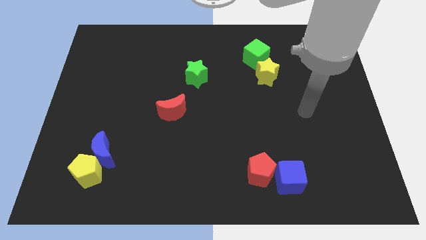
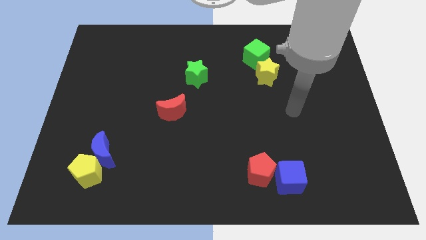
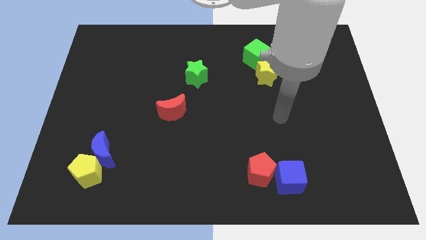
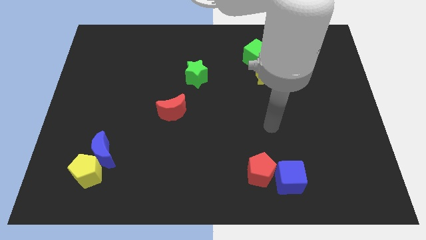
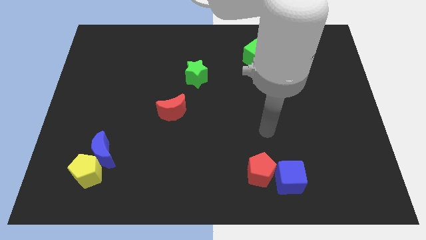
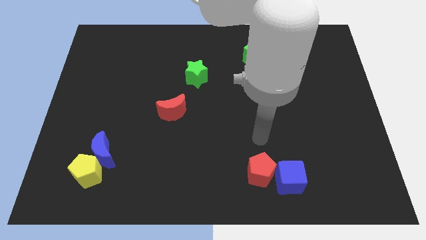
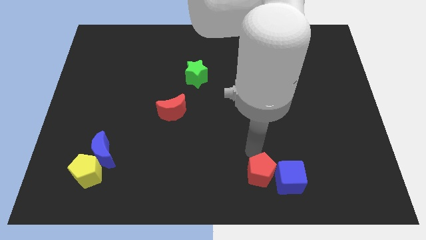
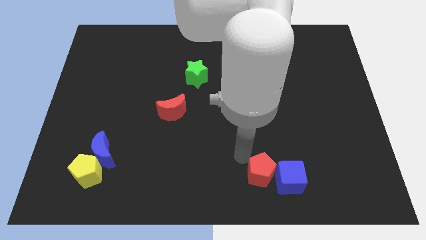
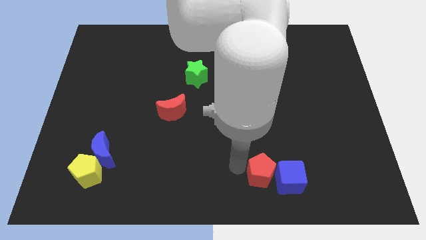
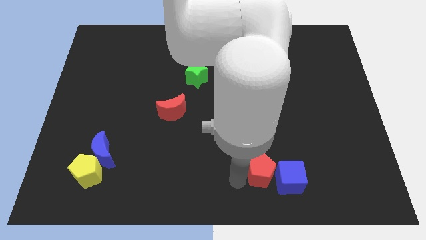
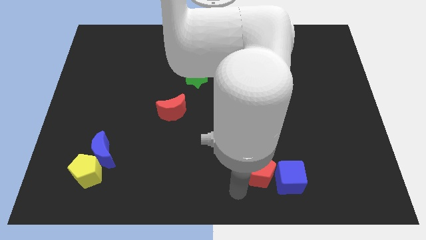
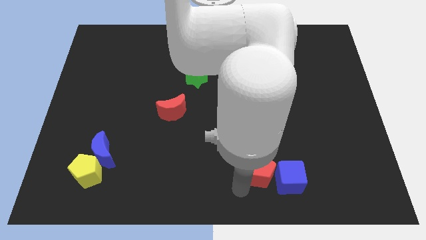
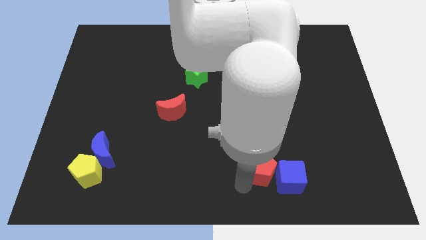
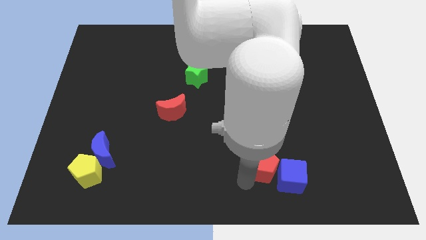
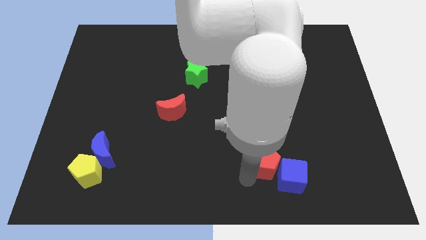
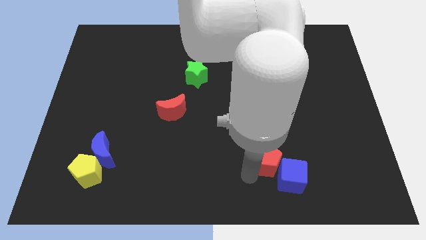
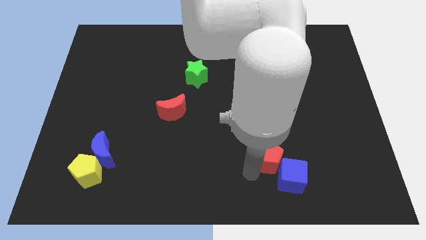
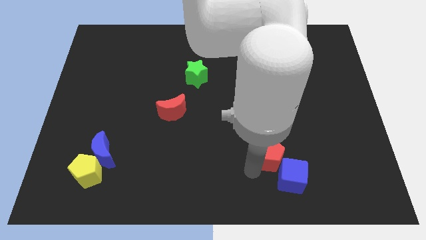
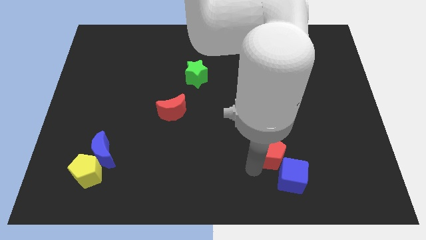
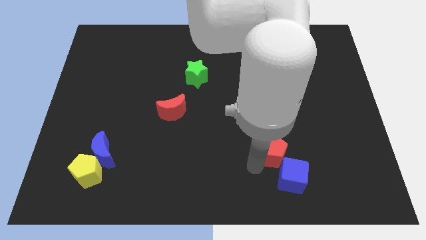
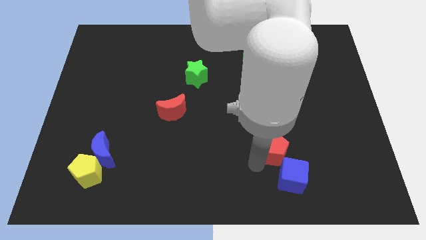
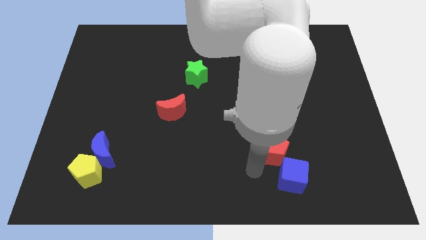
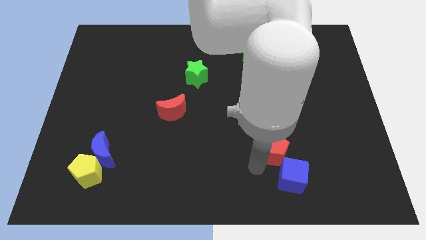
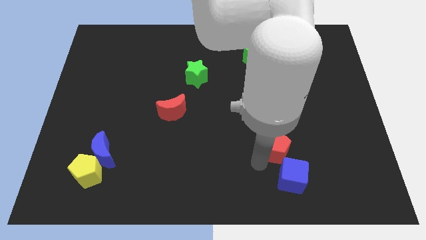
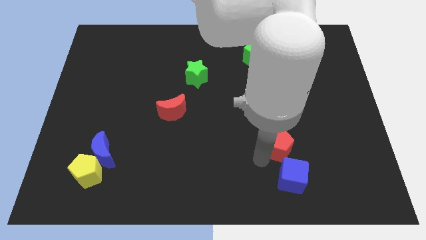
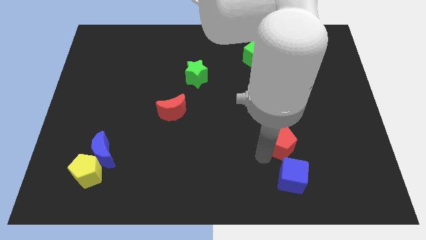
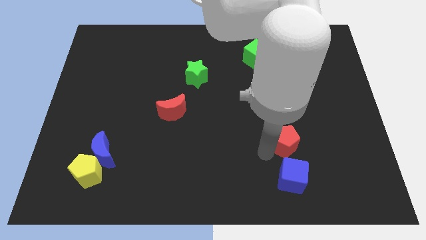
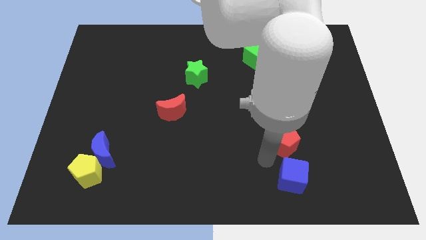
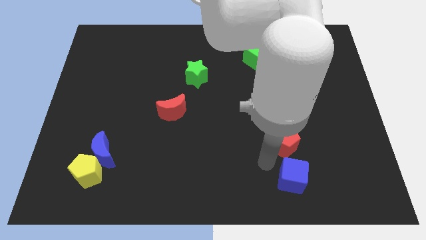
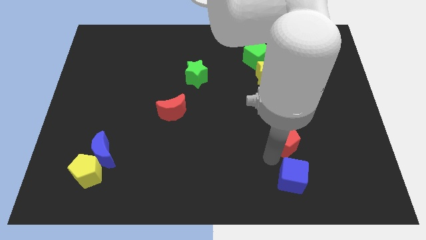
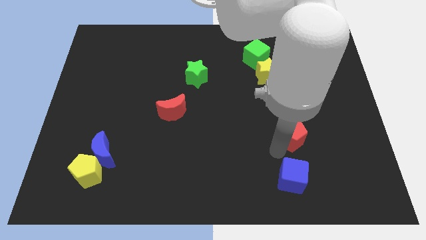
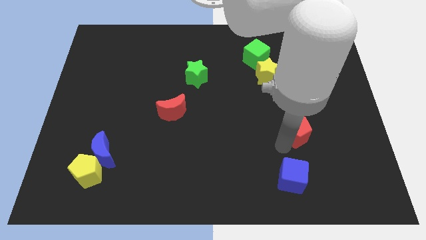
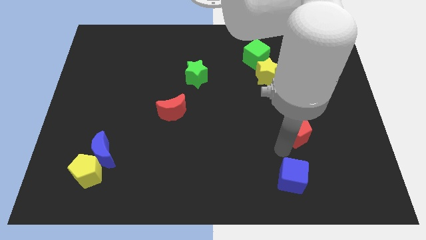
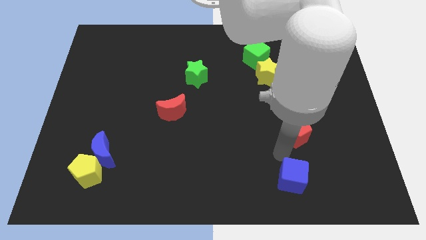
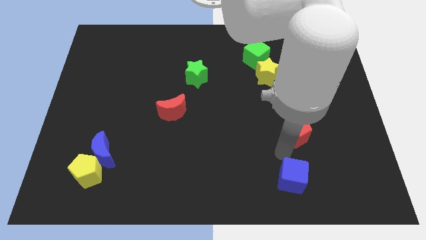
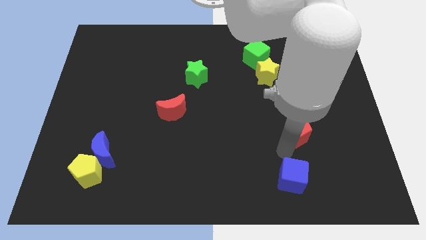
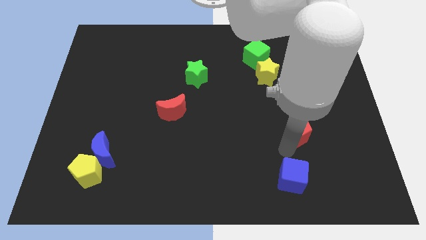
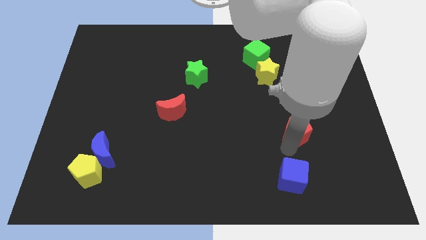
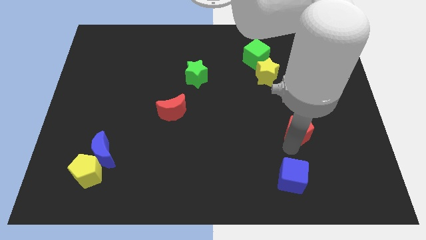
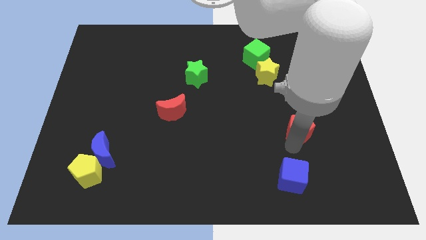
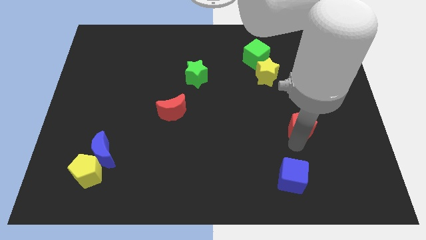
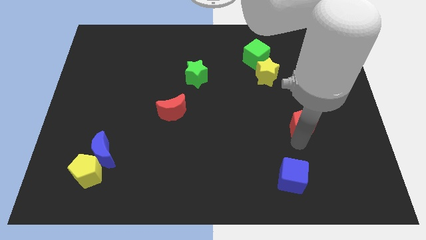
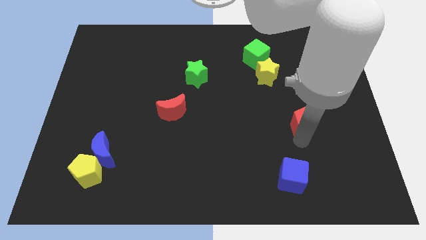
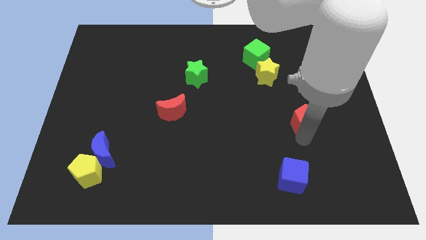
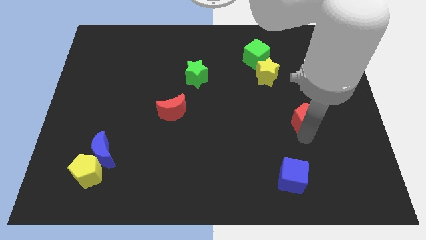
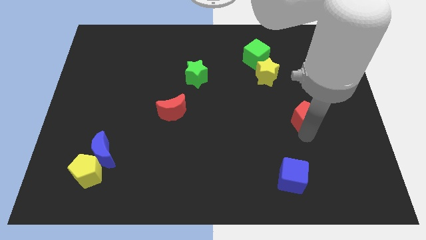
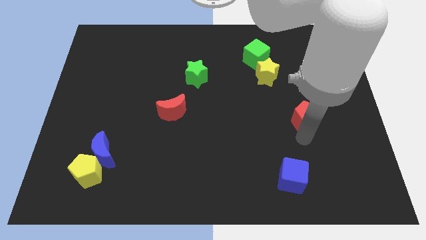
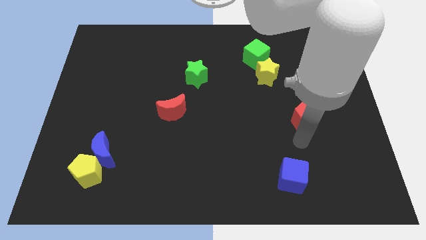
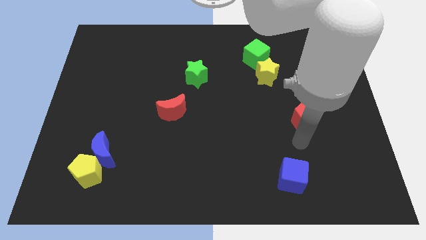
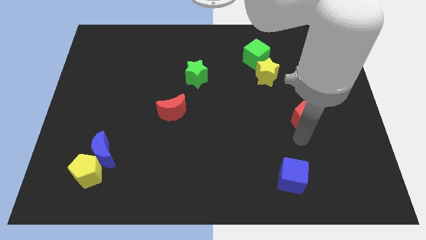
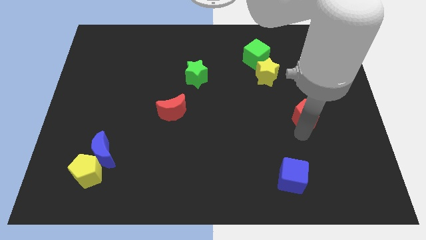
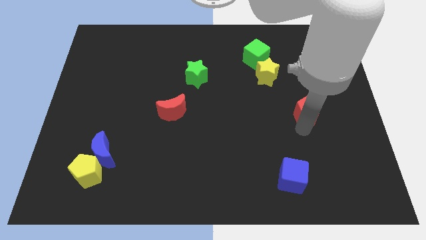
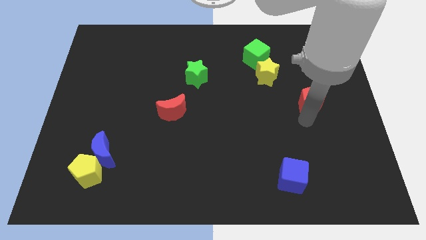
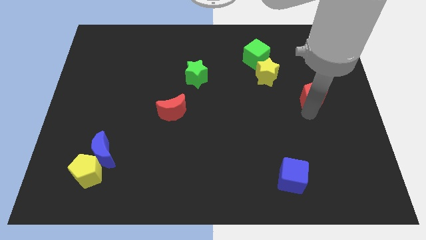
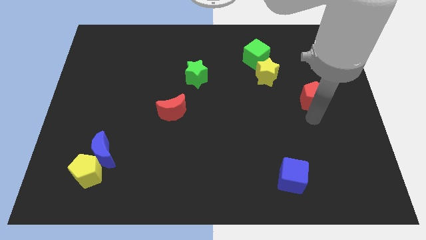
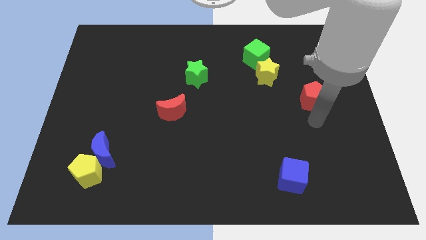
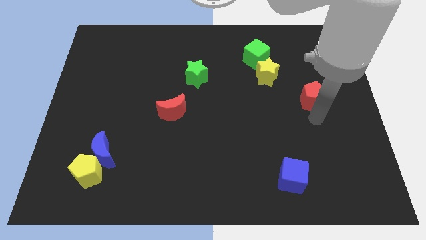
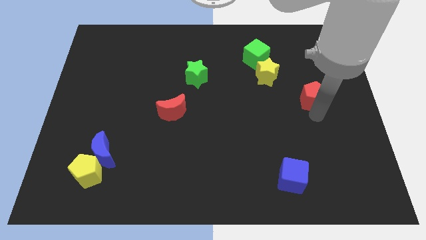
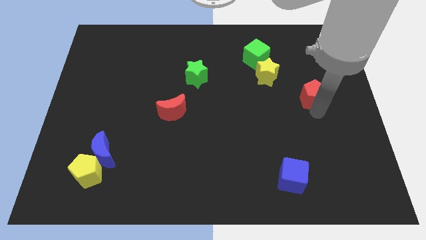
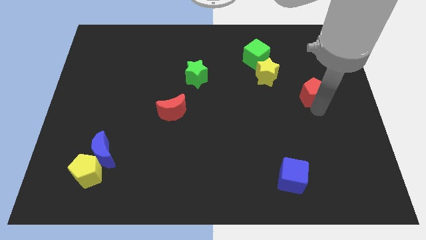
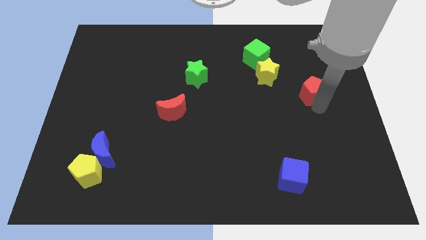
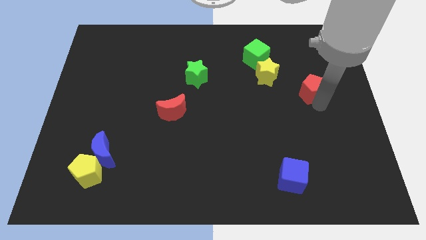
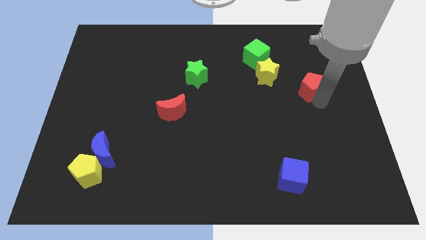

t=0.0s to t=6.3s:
push the red pentagon to the right side of the yellow star

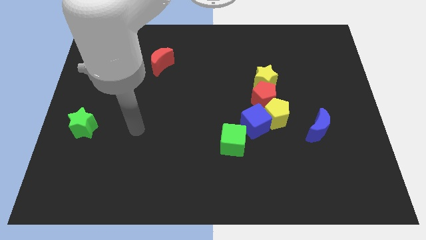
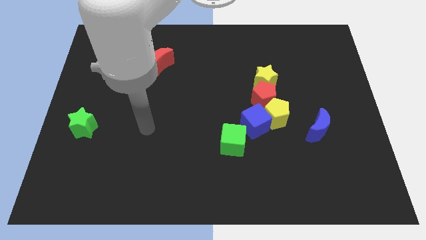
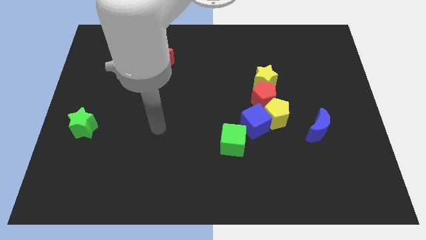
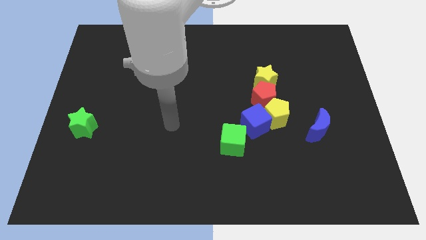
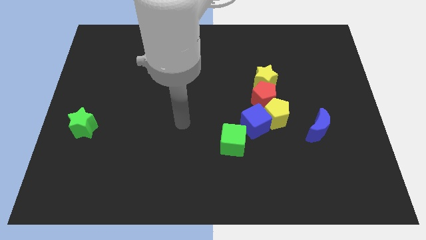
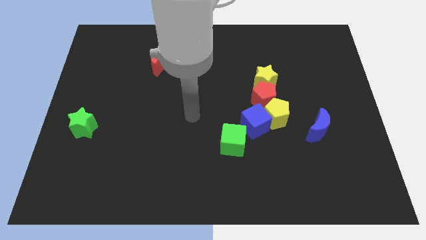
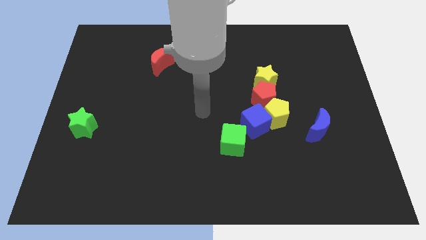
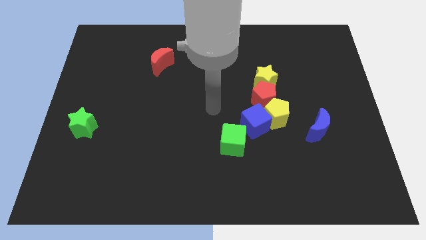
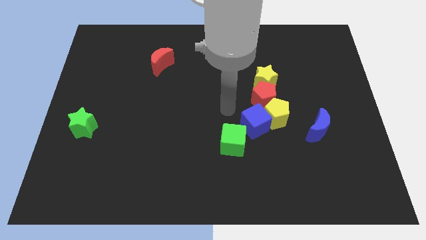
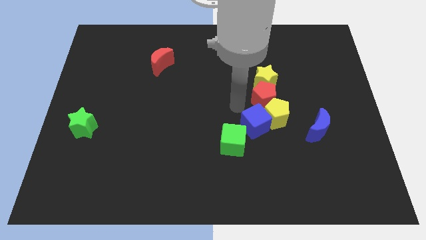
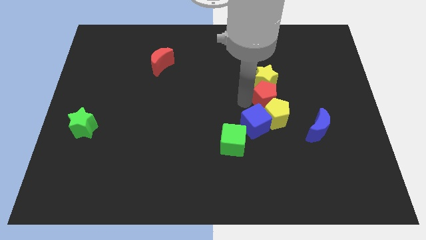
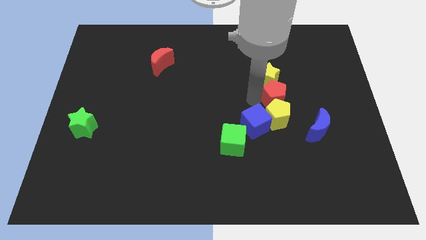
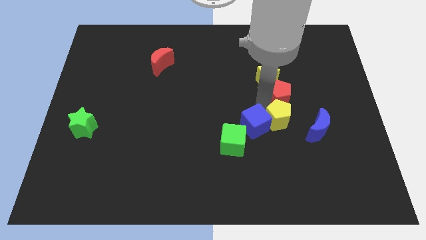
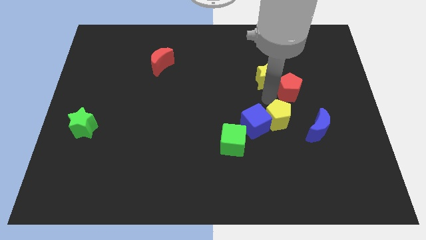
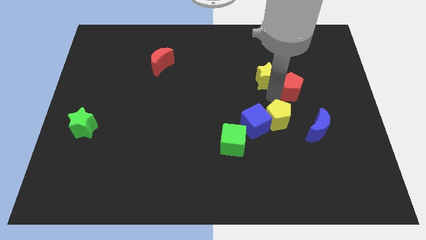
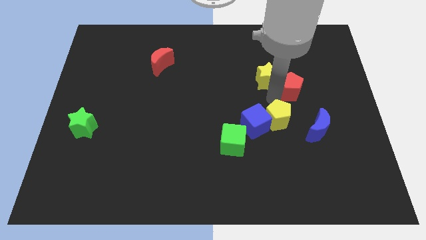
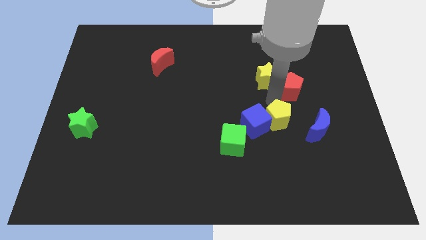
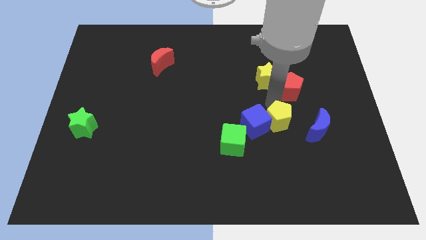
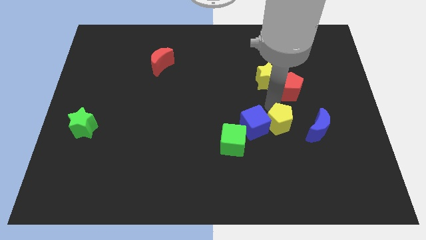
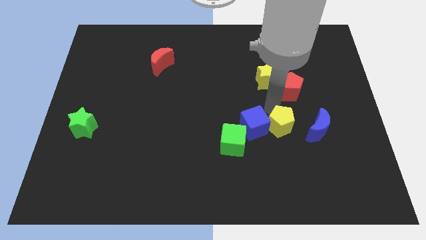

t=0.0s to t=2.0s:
put the yellow pentagon just right of the green cube

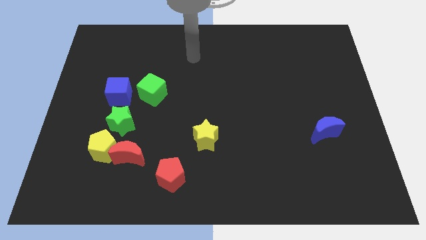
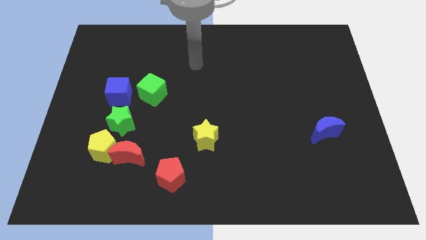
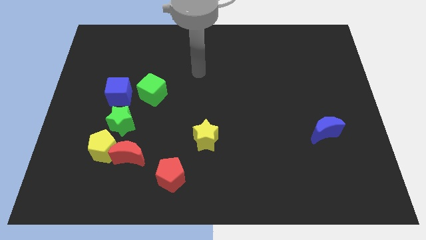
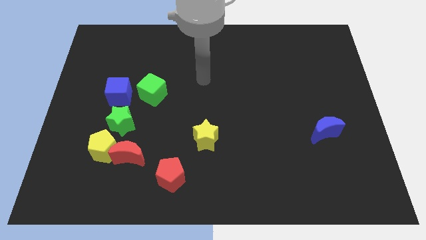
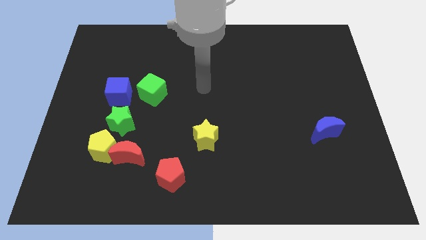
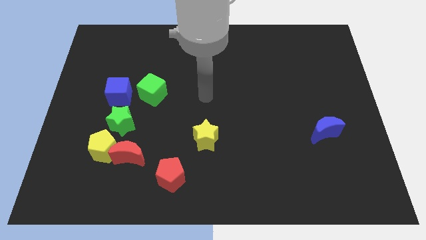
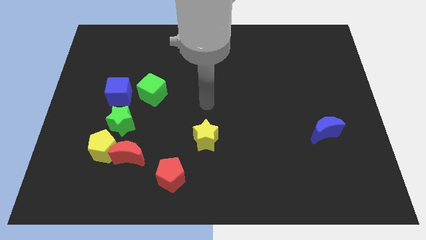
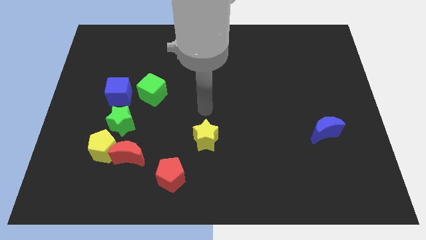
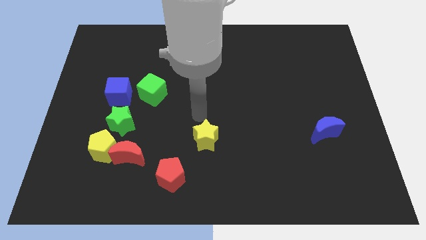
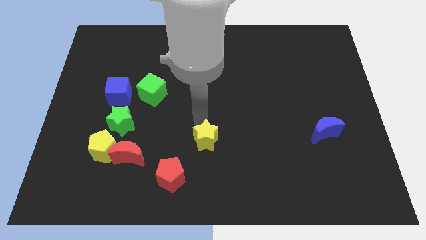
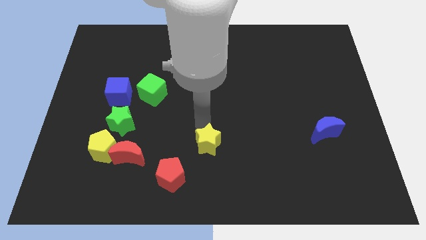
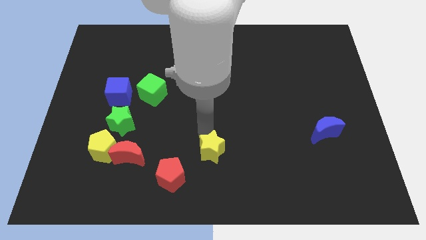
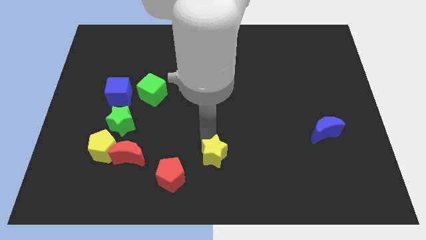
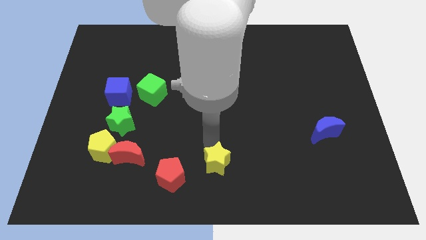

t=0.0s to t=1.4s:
push the yellow star right of the red pentagon
